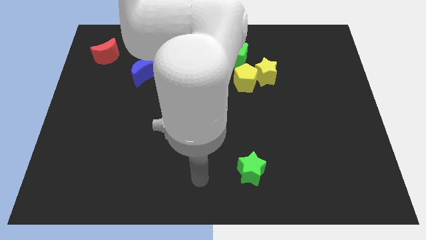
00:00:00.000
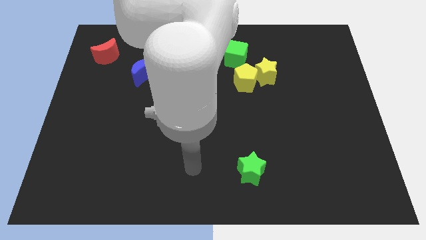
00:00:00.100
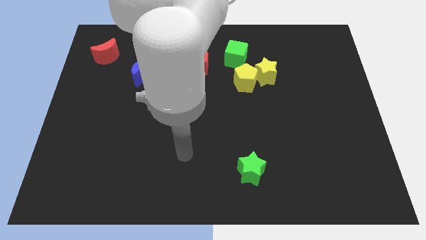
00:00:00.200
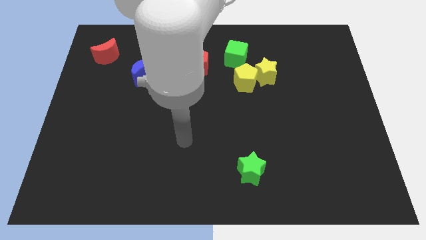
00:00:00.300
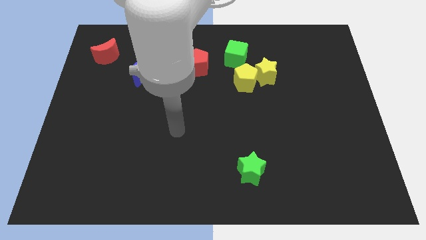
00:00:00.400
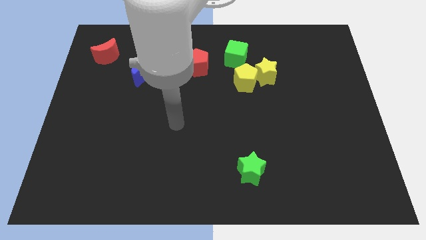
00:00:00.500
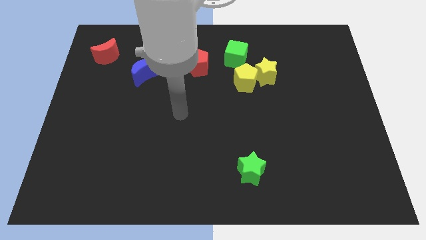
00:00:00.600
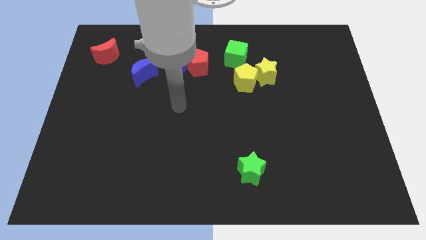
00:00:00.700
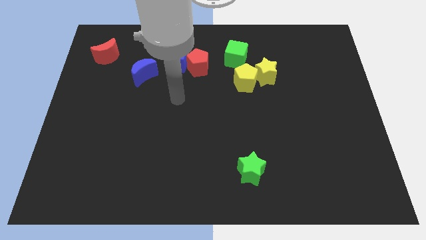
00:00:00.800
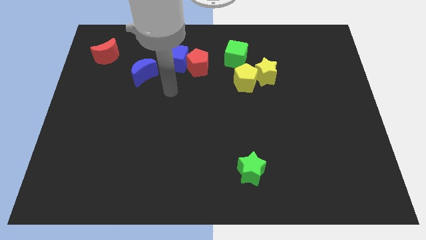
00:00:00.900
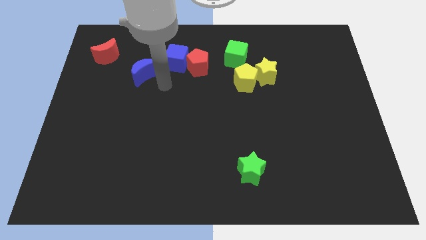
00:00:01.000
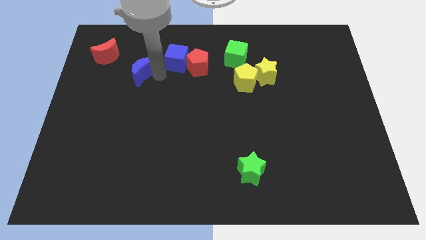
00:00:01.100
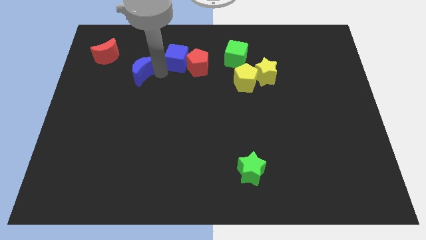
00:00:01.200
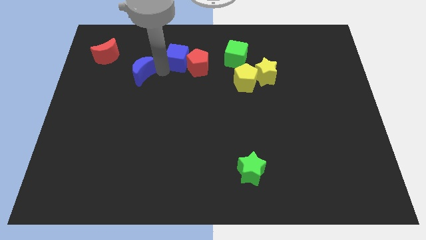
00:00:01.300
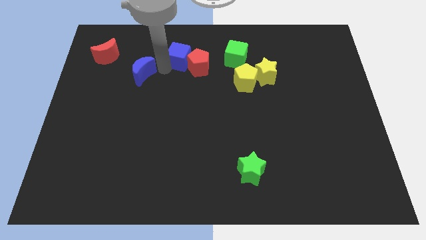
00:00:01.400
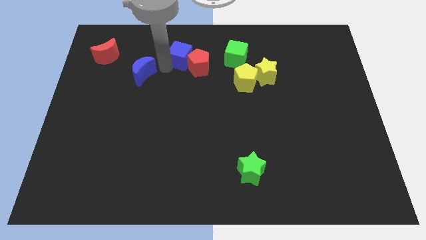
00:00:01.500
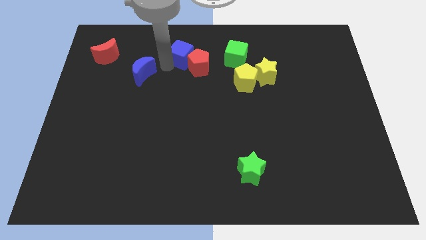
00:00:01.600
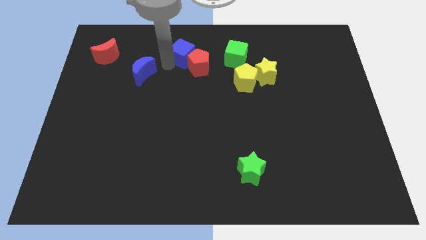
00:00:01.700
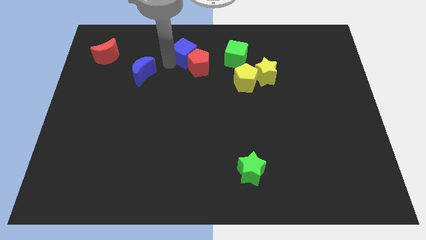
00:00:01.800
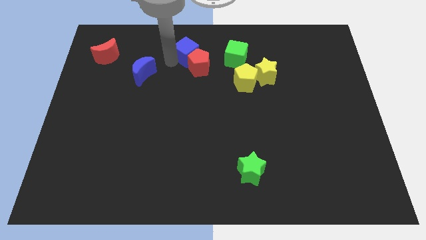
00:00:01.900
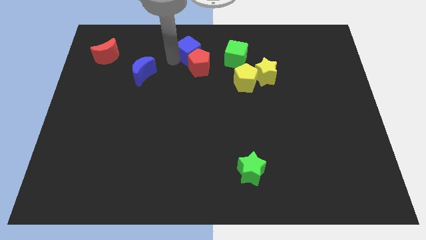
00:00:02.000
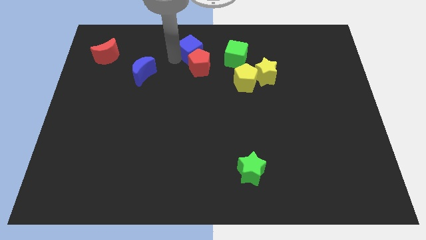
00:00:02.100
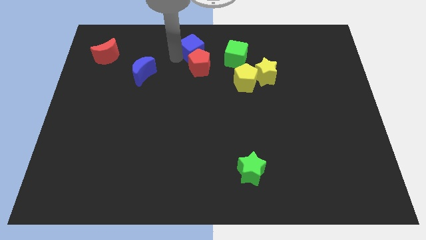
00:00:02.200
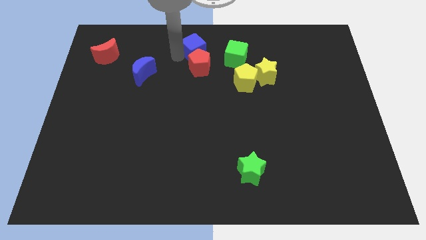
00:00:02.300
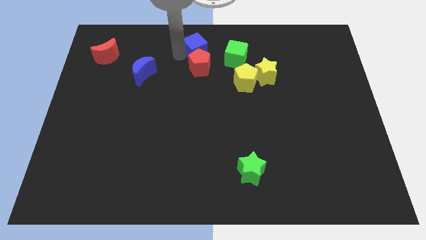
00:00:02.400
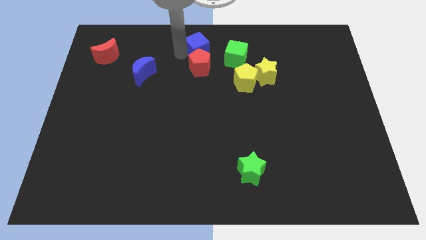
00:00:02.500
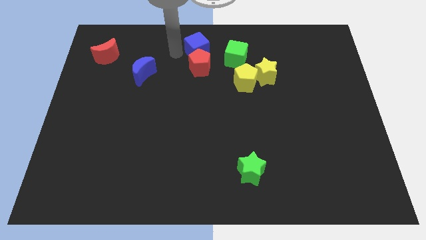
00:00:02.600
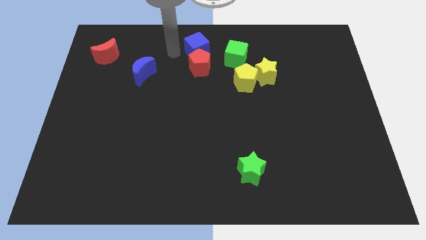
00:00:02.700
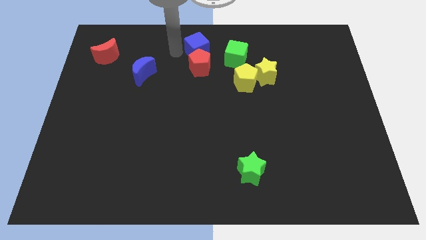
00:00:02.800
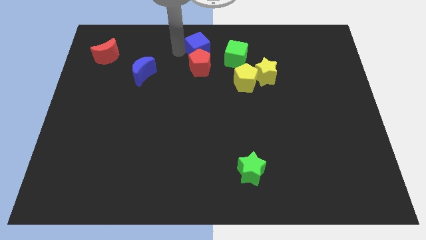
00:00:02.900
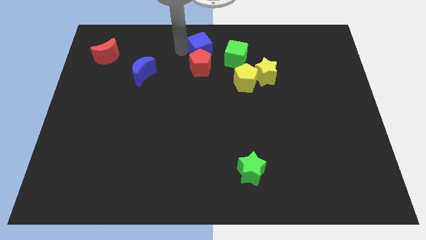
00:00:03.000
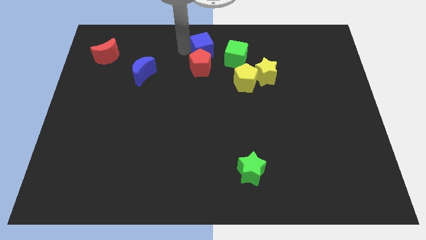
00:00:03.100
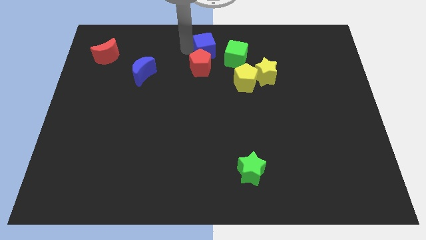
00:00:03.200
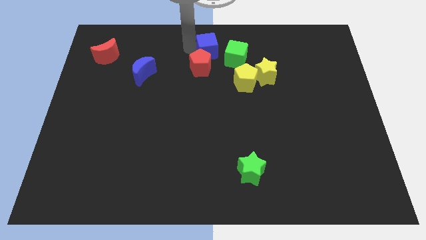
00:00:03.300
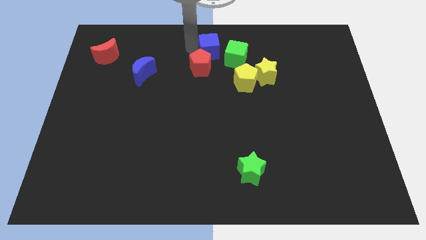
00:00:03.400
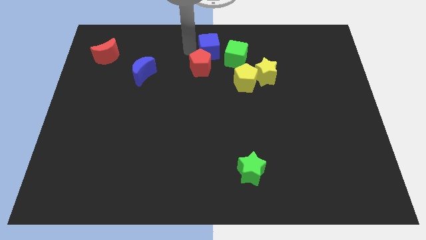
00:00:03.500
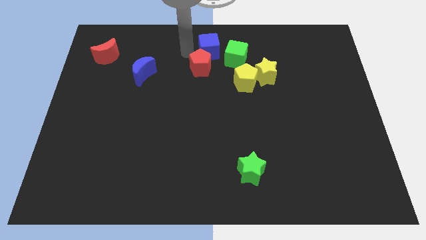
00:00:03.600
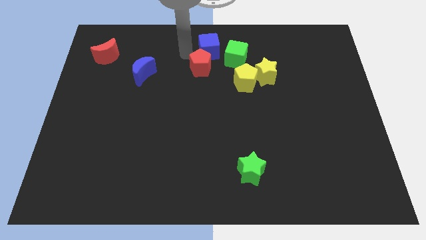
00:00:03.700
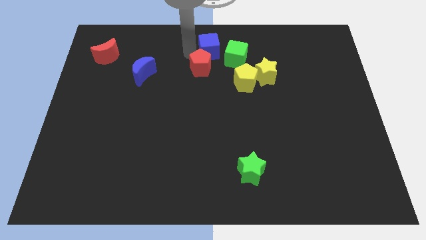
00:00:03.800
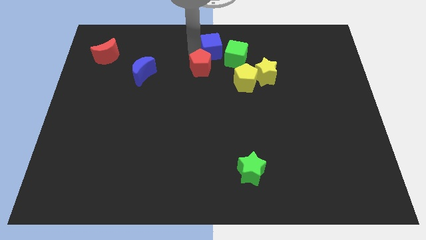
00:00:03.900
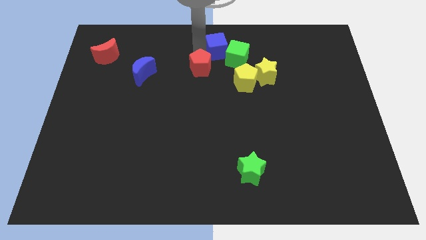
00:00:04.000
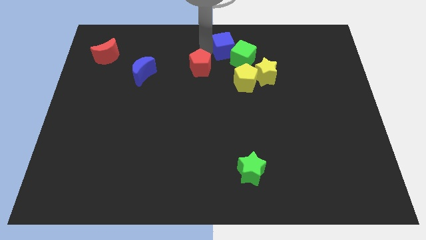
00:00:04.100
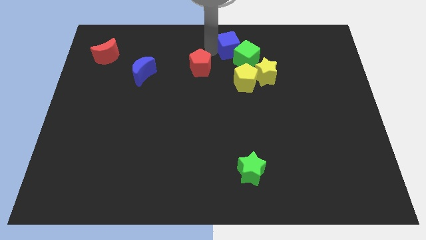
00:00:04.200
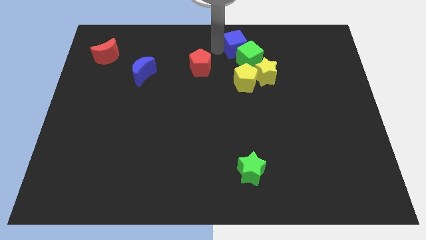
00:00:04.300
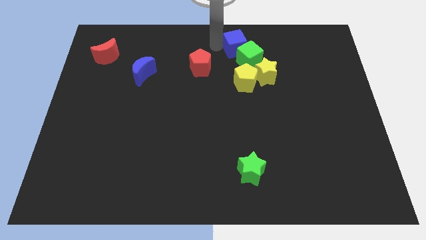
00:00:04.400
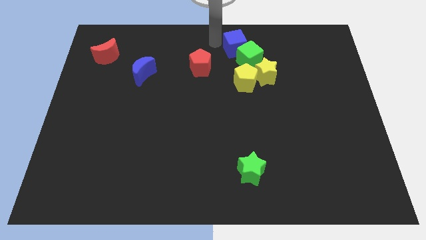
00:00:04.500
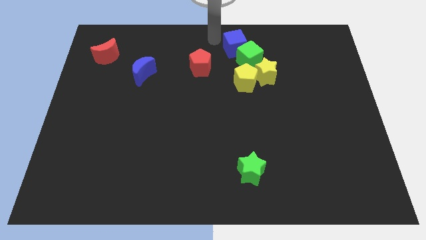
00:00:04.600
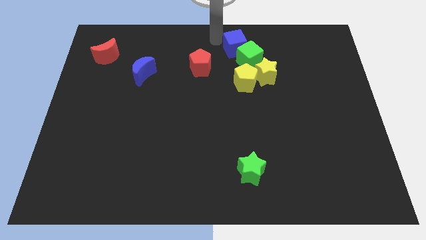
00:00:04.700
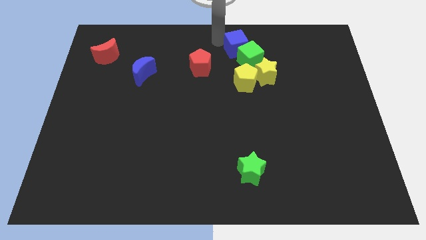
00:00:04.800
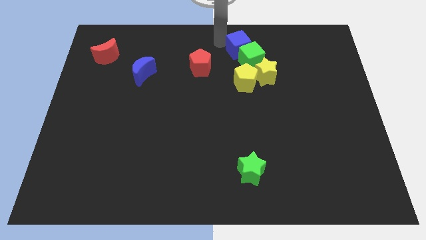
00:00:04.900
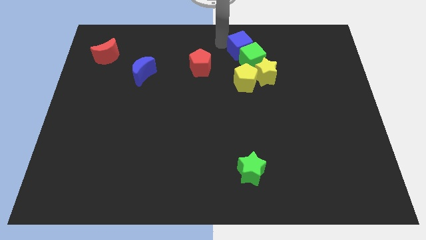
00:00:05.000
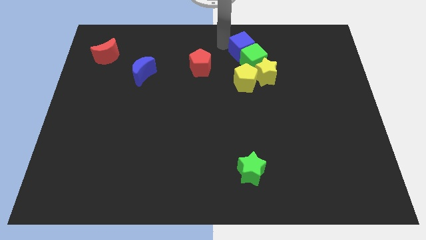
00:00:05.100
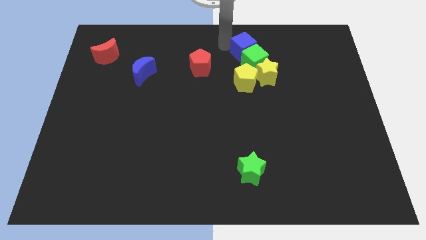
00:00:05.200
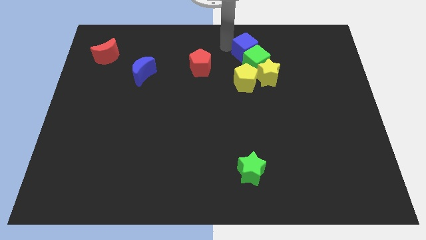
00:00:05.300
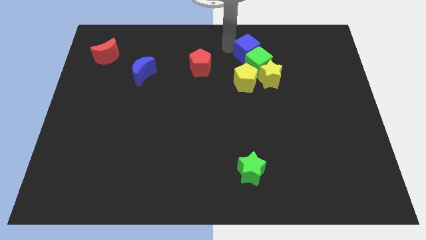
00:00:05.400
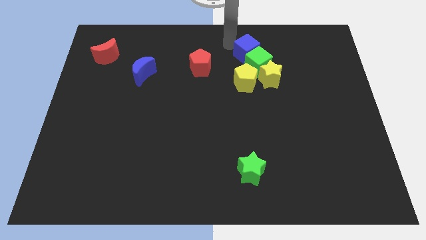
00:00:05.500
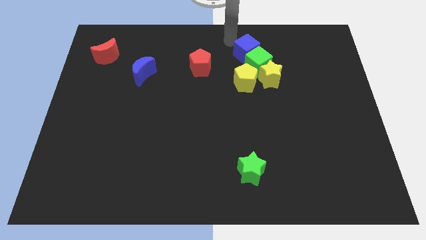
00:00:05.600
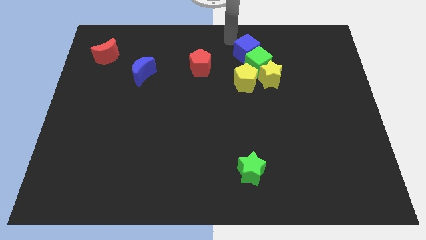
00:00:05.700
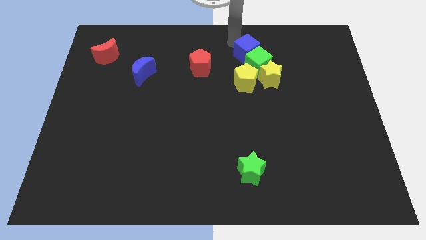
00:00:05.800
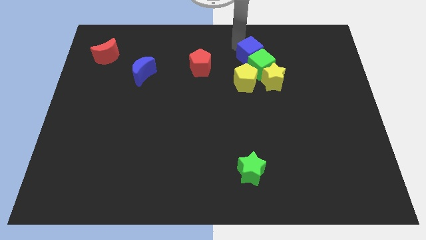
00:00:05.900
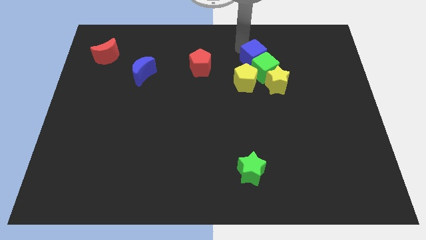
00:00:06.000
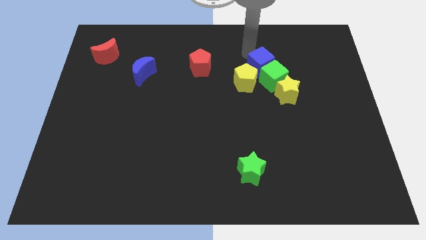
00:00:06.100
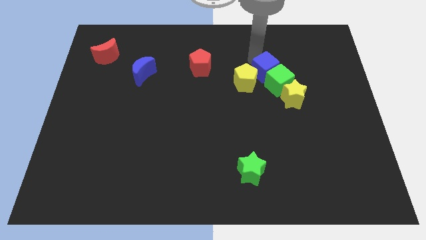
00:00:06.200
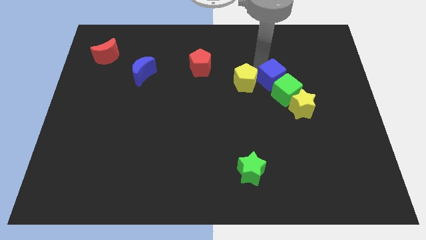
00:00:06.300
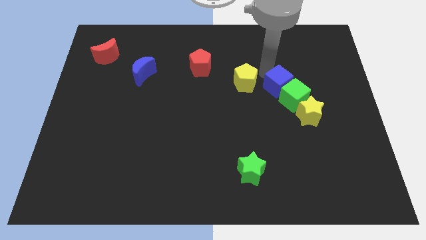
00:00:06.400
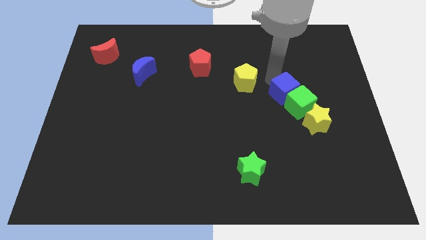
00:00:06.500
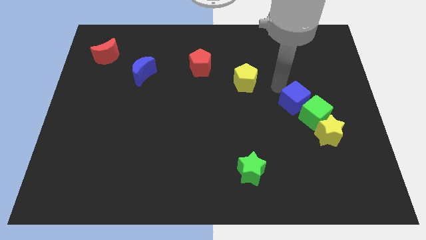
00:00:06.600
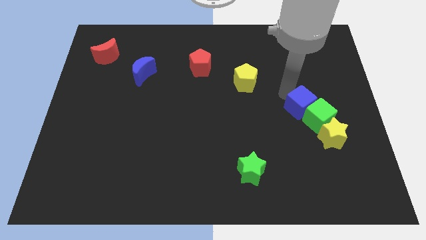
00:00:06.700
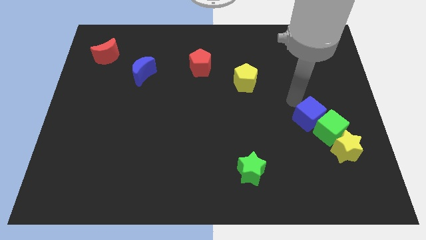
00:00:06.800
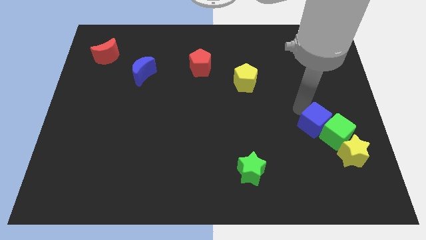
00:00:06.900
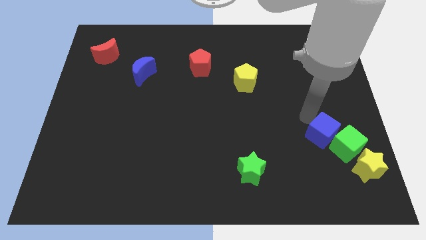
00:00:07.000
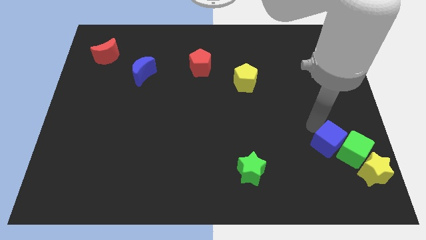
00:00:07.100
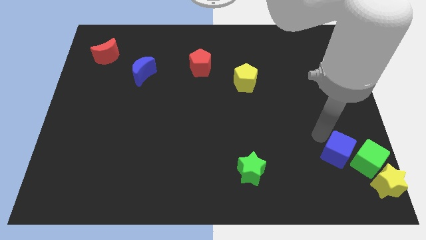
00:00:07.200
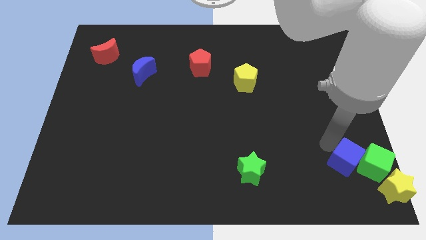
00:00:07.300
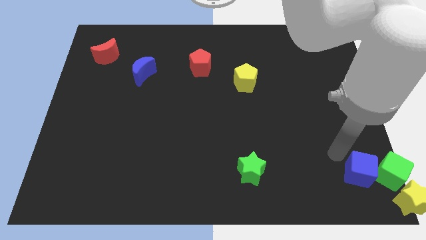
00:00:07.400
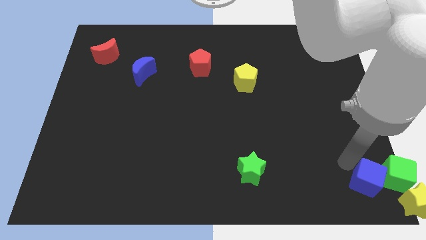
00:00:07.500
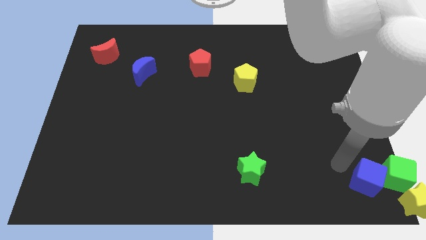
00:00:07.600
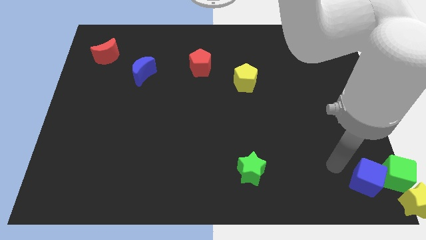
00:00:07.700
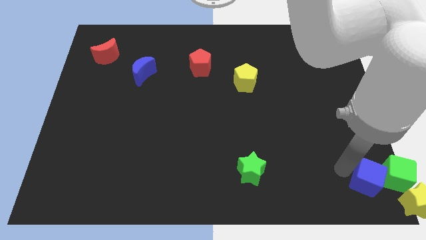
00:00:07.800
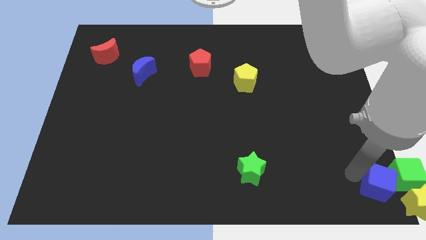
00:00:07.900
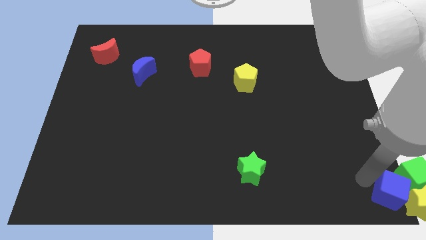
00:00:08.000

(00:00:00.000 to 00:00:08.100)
push the blue cube close to the yellow star
